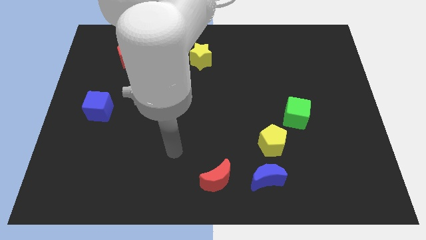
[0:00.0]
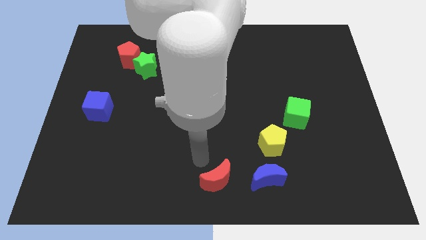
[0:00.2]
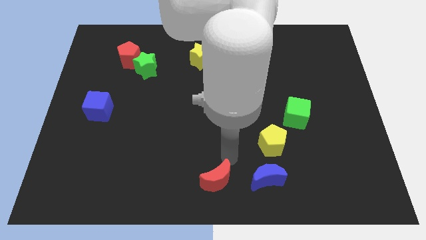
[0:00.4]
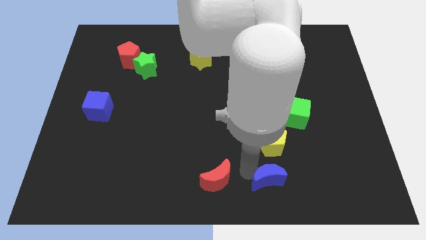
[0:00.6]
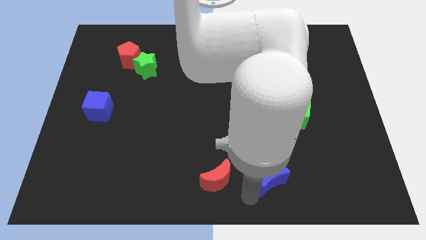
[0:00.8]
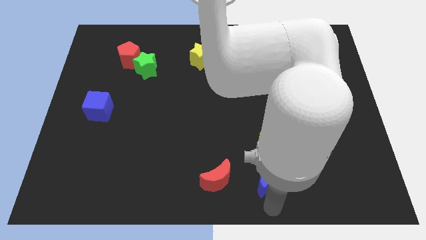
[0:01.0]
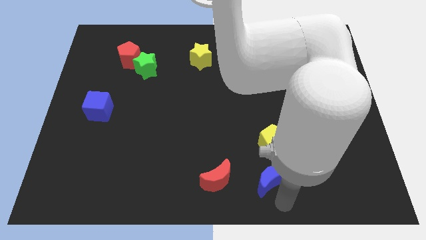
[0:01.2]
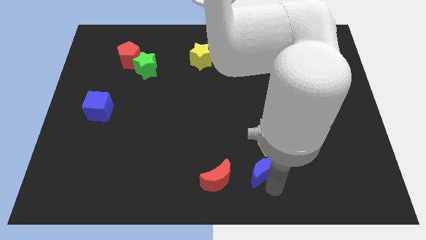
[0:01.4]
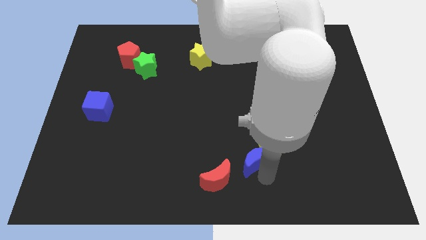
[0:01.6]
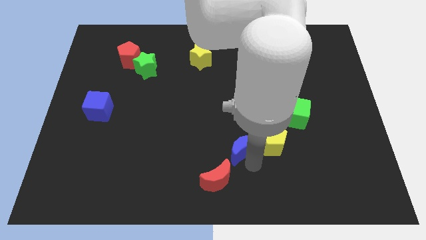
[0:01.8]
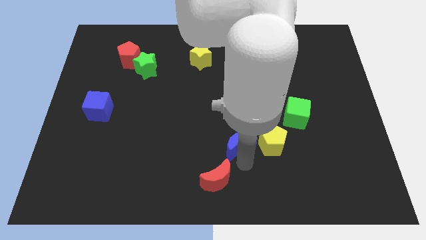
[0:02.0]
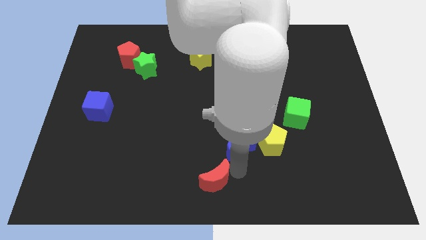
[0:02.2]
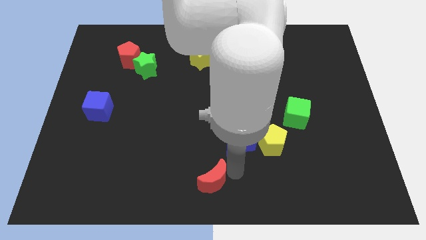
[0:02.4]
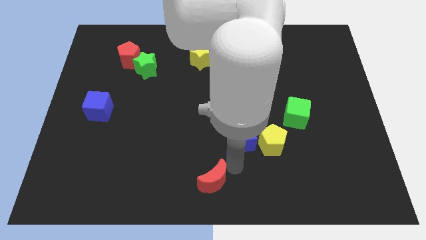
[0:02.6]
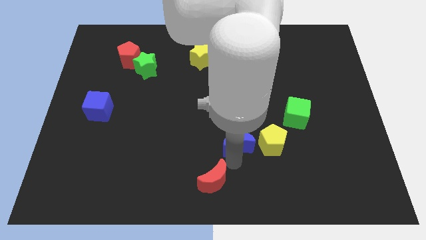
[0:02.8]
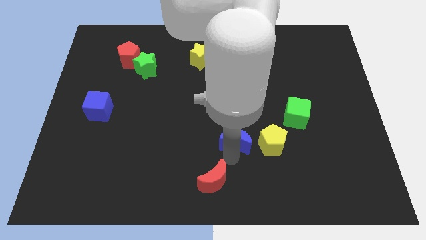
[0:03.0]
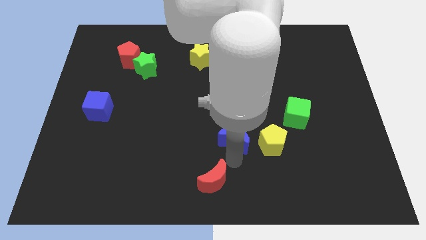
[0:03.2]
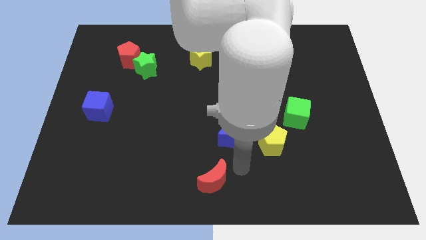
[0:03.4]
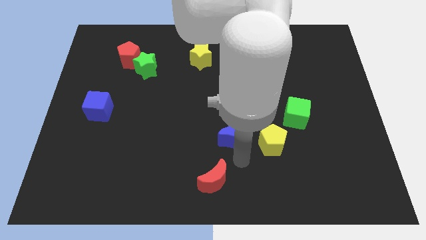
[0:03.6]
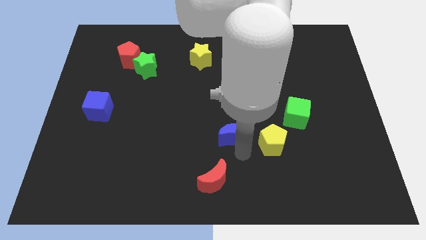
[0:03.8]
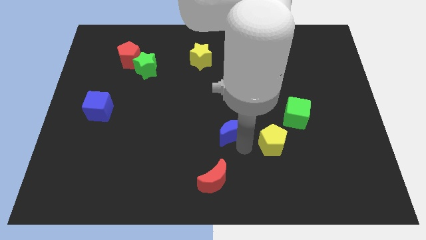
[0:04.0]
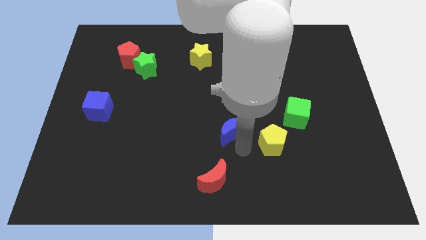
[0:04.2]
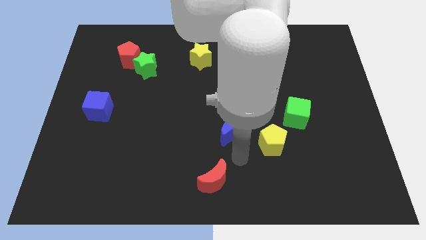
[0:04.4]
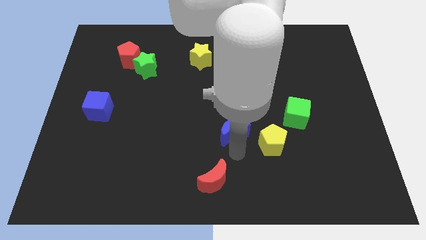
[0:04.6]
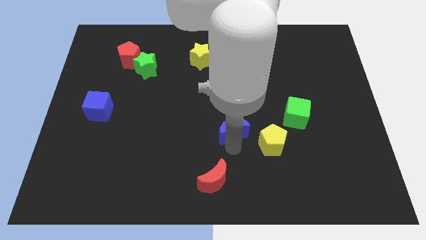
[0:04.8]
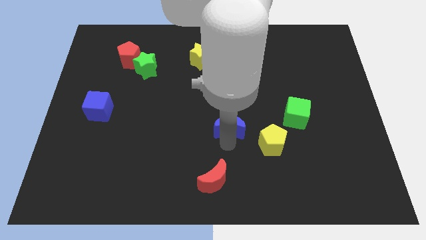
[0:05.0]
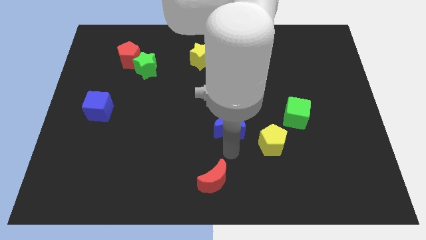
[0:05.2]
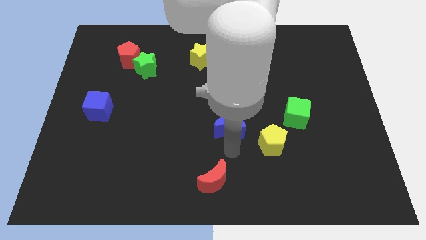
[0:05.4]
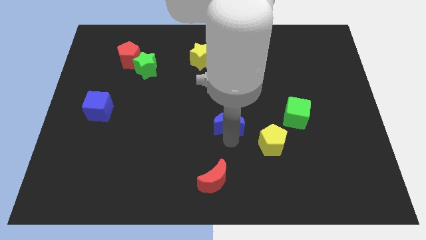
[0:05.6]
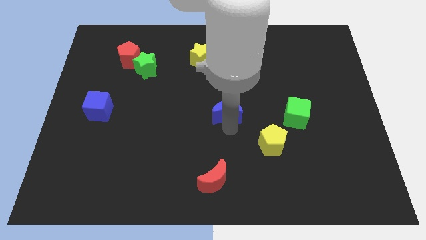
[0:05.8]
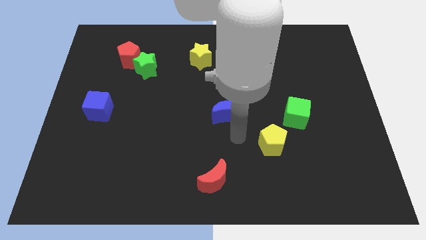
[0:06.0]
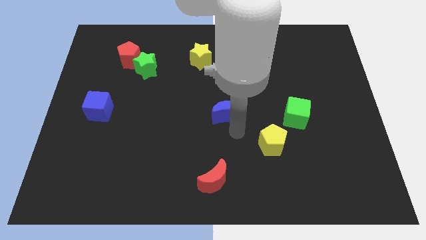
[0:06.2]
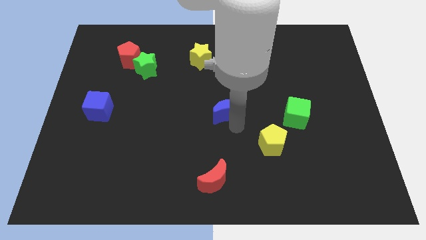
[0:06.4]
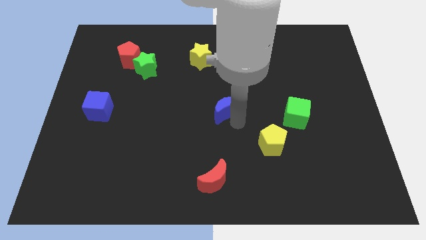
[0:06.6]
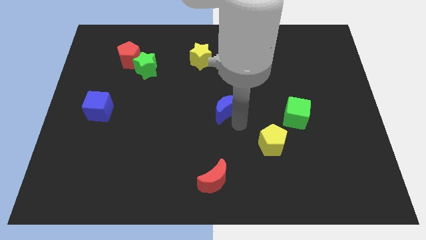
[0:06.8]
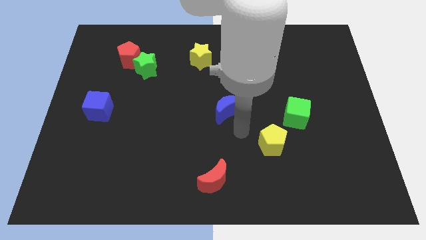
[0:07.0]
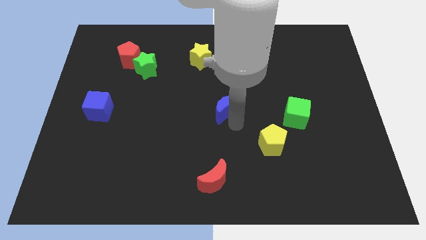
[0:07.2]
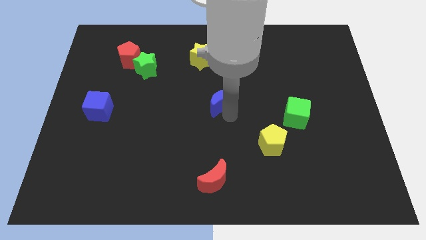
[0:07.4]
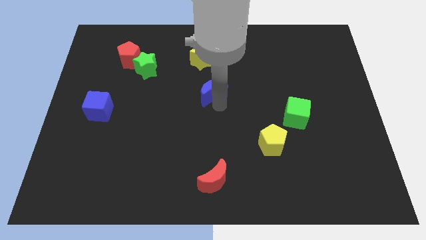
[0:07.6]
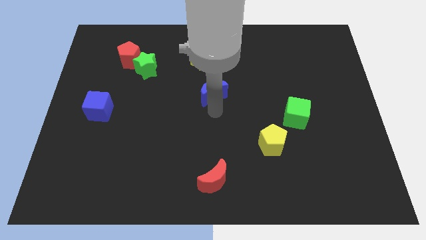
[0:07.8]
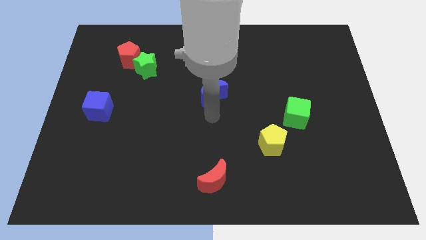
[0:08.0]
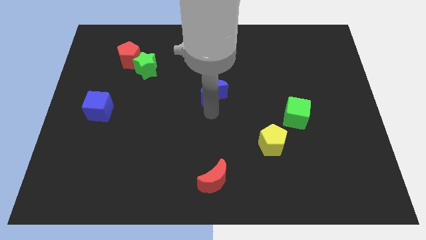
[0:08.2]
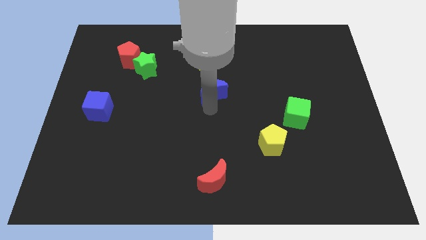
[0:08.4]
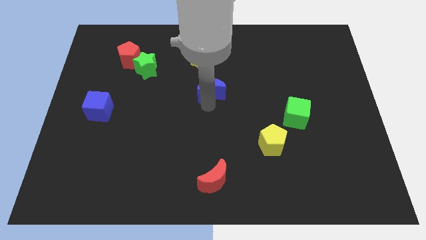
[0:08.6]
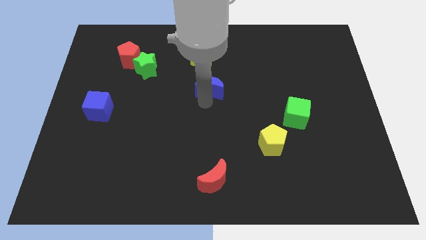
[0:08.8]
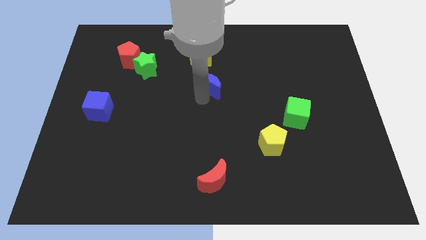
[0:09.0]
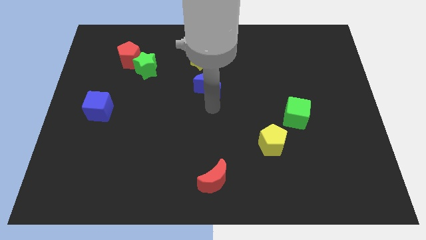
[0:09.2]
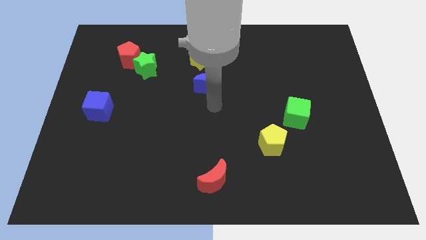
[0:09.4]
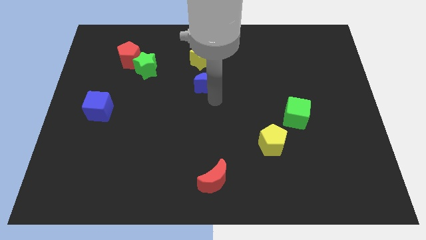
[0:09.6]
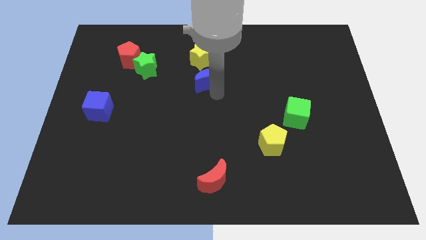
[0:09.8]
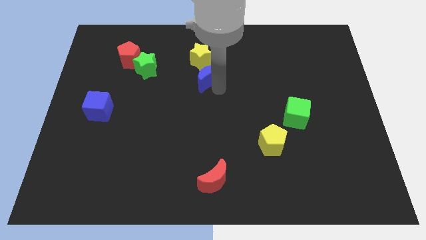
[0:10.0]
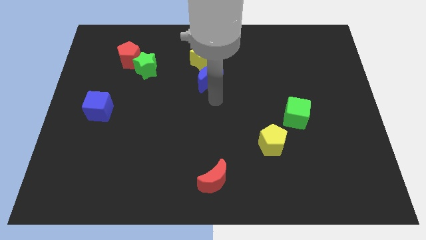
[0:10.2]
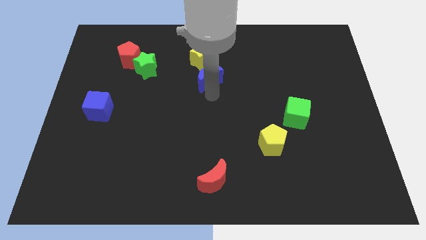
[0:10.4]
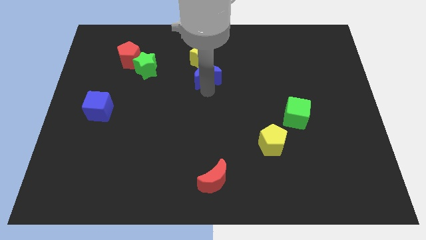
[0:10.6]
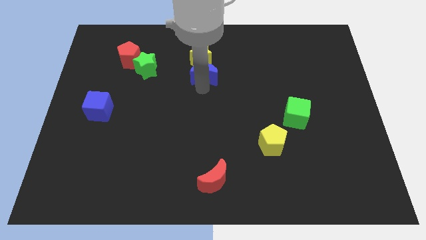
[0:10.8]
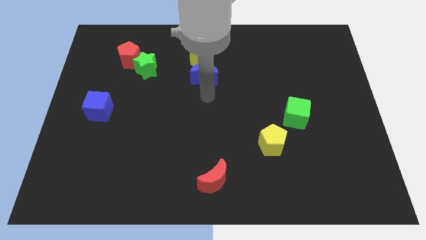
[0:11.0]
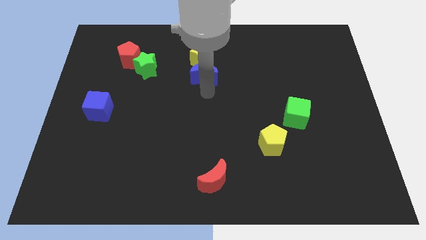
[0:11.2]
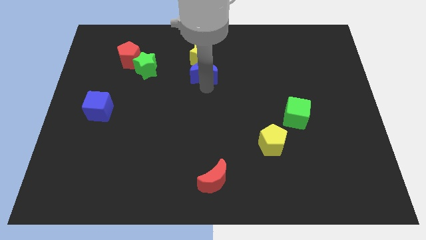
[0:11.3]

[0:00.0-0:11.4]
slide the blue moon close to the yellow star

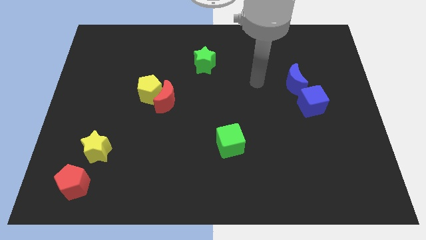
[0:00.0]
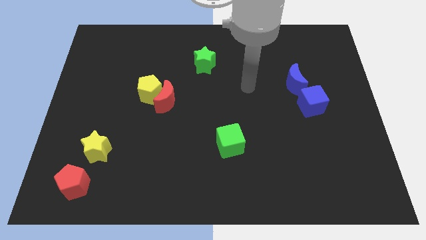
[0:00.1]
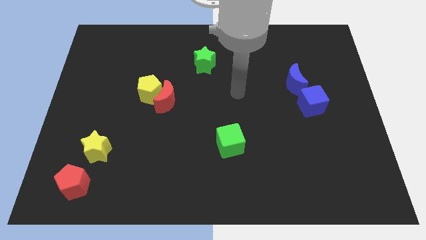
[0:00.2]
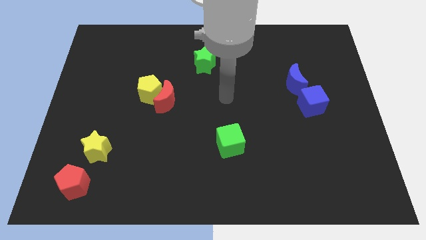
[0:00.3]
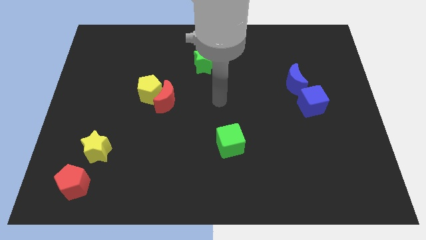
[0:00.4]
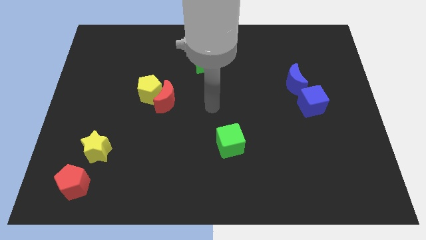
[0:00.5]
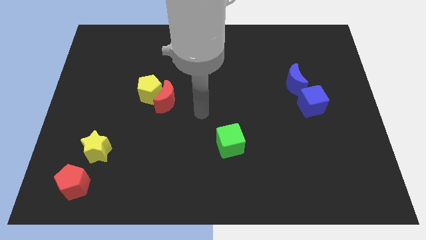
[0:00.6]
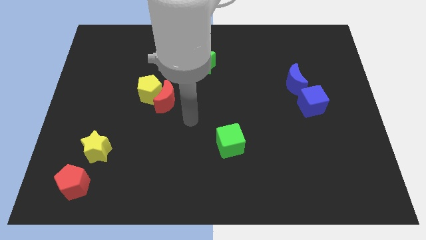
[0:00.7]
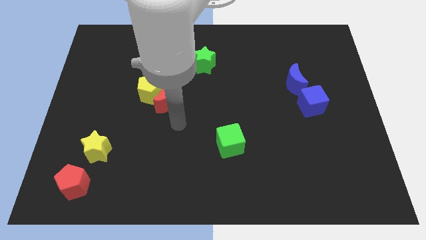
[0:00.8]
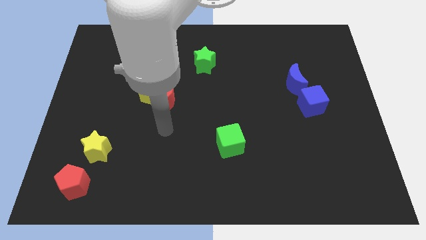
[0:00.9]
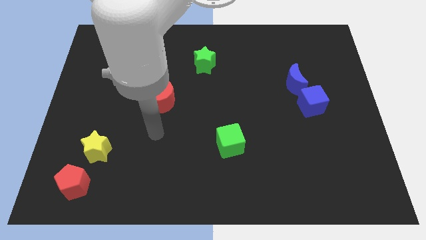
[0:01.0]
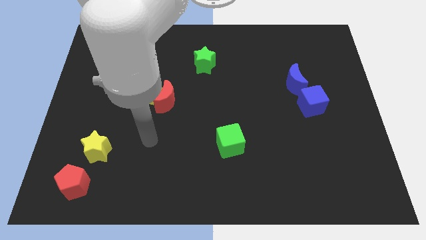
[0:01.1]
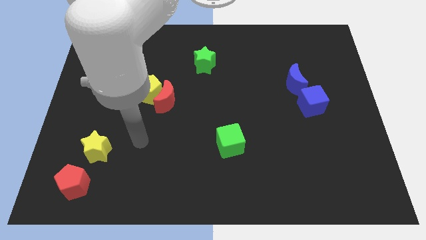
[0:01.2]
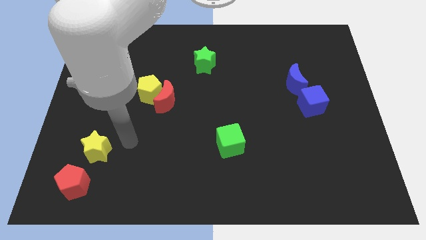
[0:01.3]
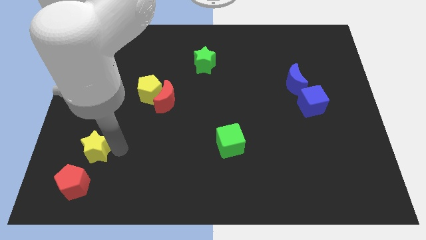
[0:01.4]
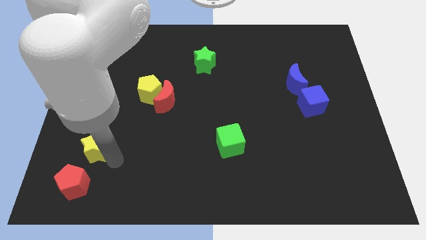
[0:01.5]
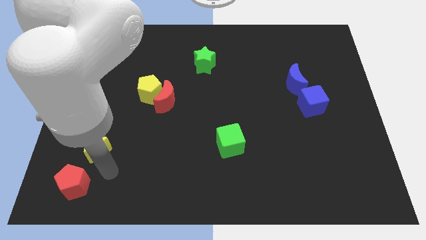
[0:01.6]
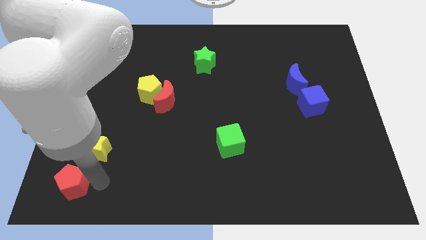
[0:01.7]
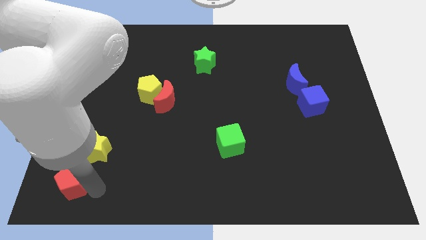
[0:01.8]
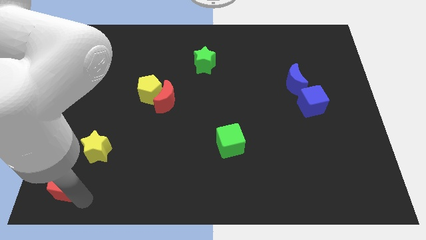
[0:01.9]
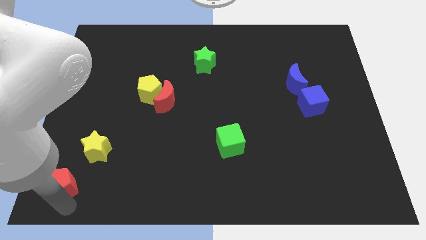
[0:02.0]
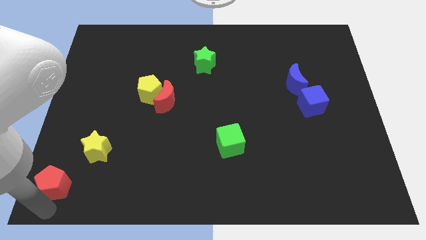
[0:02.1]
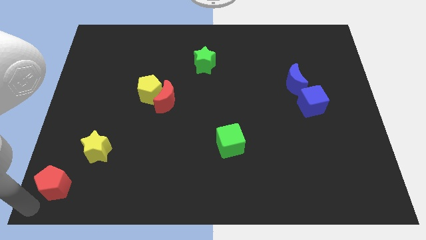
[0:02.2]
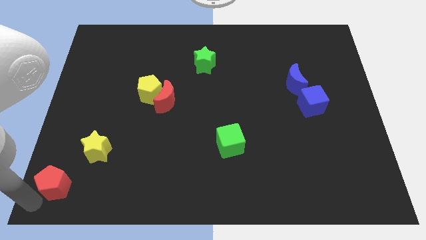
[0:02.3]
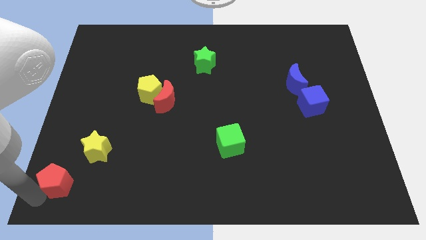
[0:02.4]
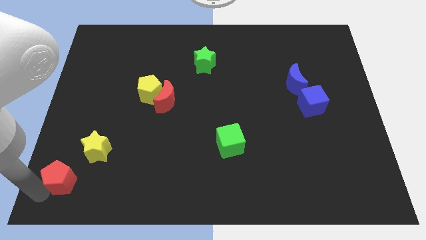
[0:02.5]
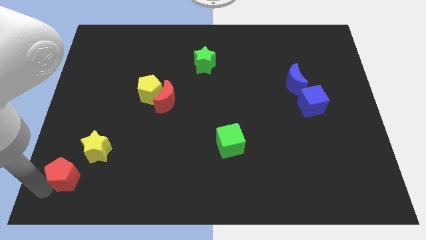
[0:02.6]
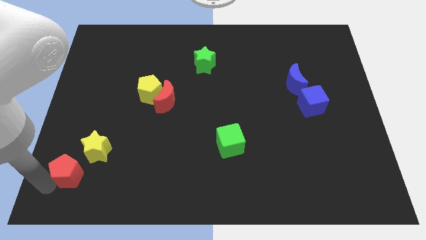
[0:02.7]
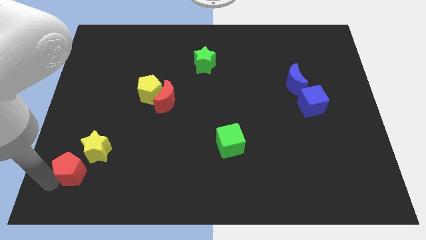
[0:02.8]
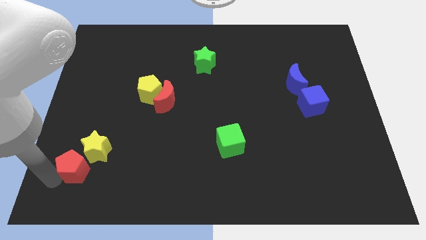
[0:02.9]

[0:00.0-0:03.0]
push the red pentagon next to the yellow star
